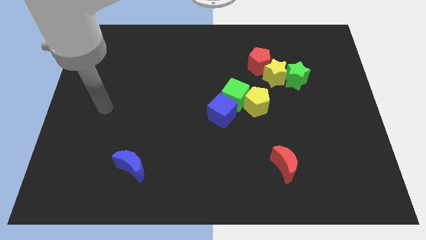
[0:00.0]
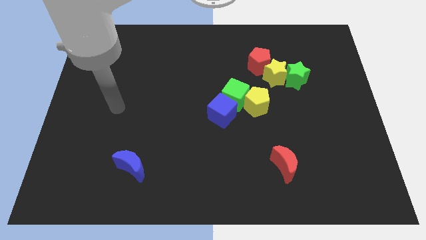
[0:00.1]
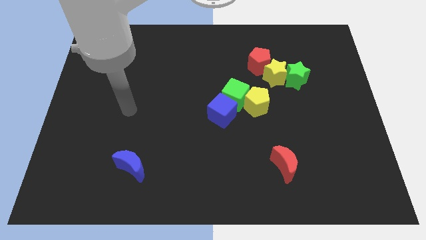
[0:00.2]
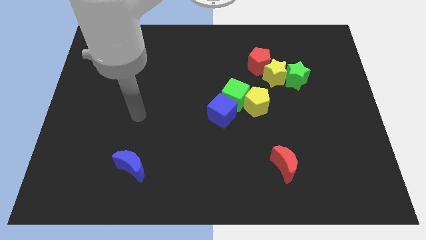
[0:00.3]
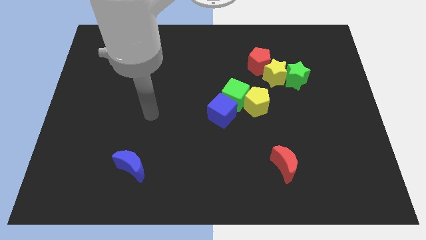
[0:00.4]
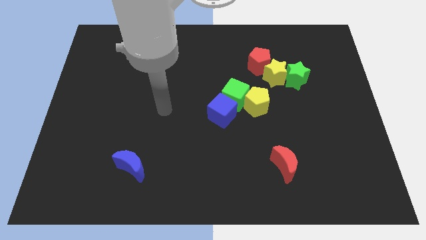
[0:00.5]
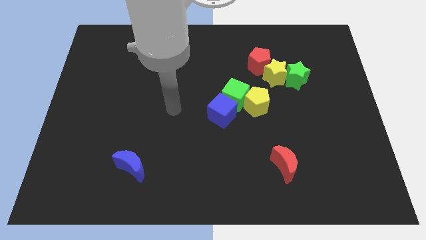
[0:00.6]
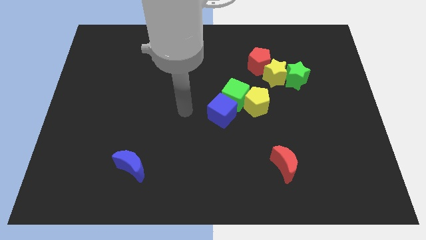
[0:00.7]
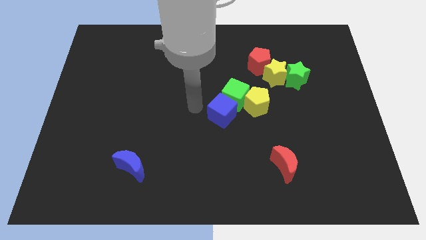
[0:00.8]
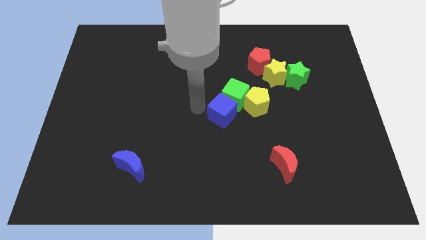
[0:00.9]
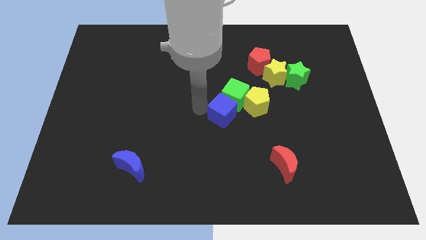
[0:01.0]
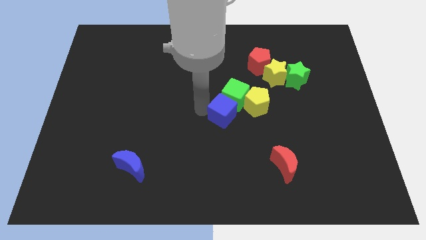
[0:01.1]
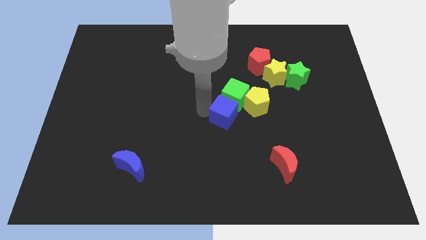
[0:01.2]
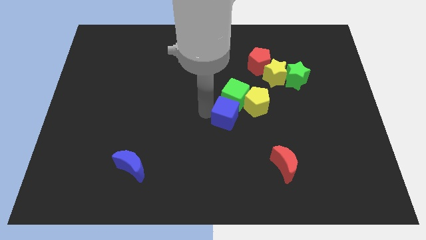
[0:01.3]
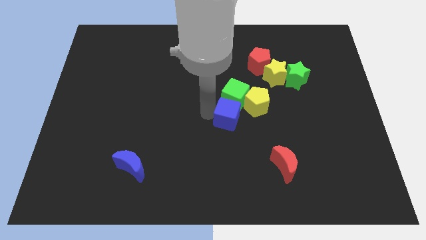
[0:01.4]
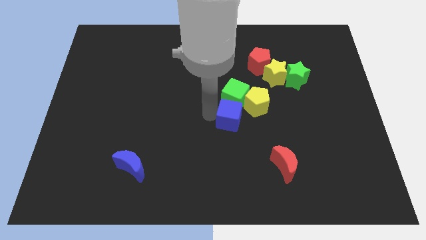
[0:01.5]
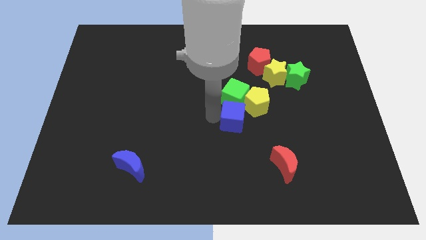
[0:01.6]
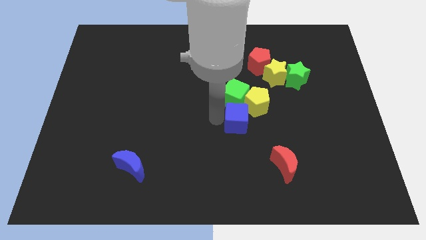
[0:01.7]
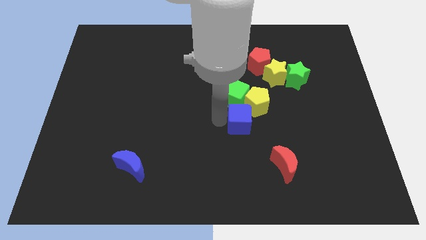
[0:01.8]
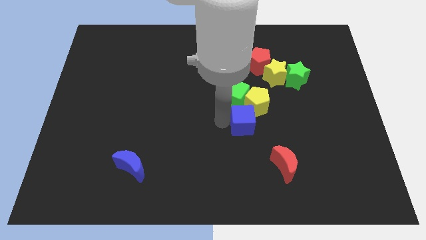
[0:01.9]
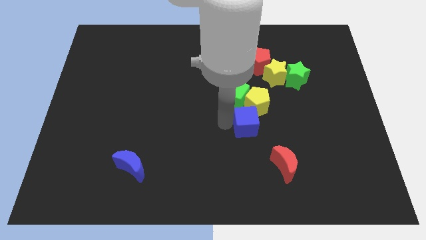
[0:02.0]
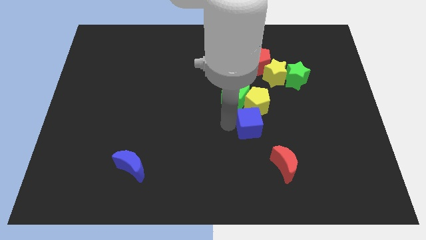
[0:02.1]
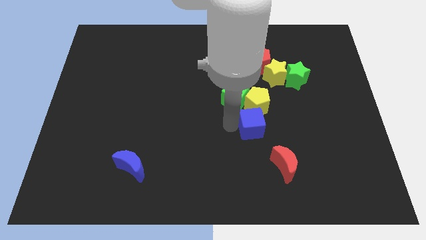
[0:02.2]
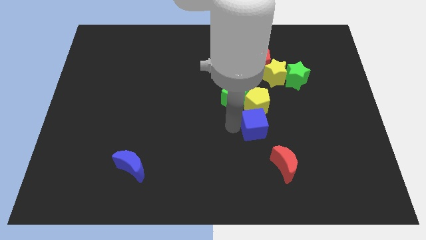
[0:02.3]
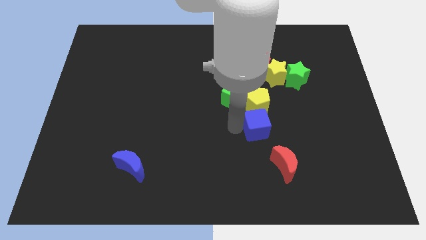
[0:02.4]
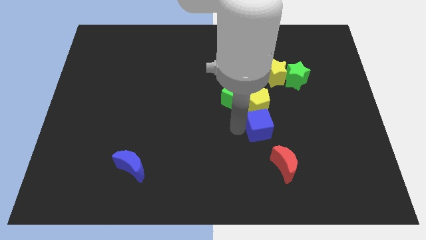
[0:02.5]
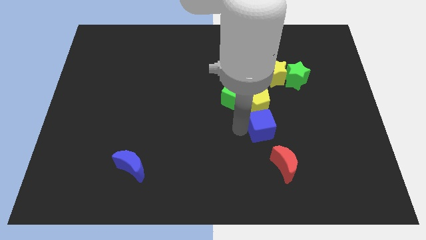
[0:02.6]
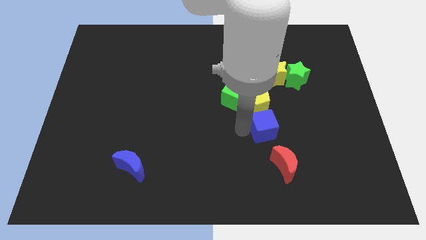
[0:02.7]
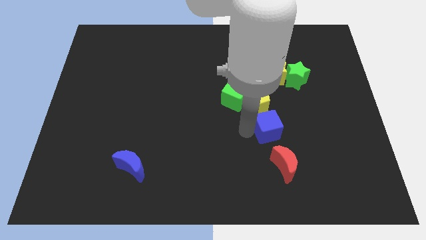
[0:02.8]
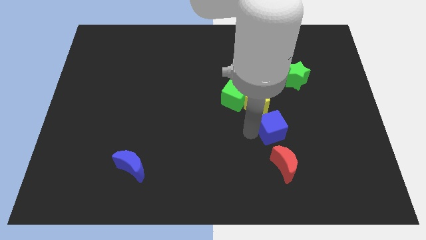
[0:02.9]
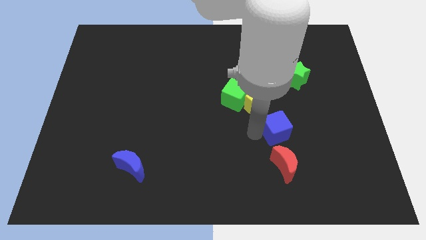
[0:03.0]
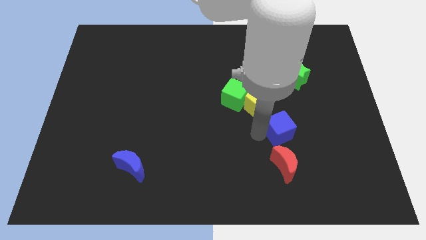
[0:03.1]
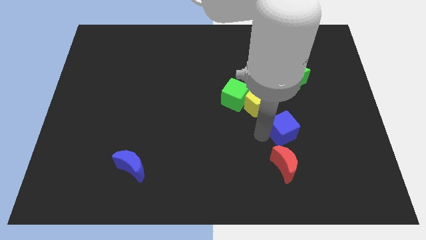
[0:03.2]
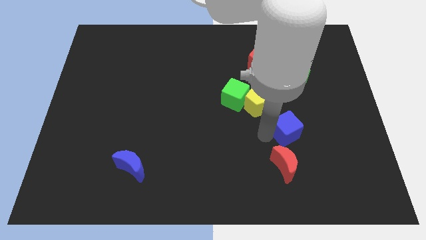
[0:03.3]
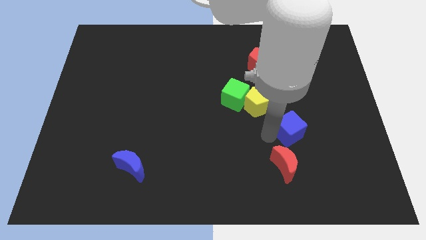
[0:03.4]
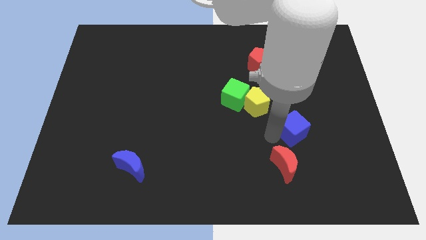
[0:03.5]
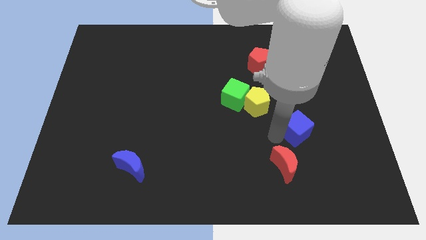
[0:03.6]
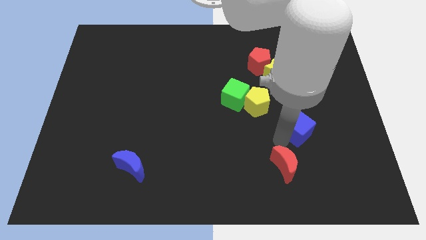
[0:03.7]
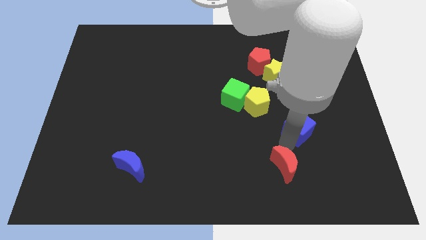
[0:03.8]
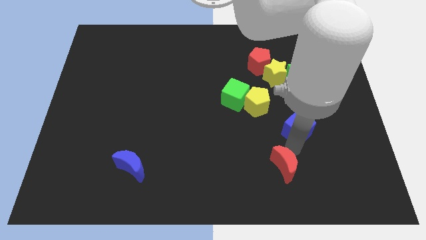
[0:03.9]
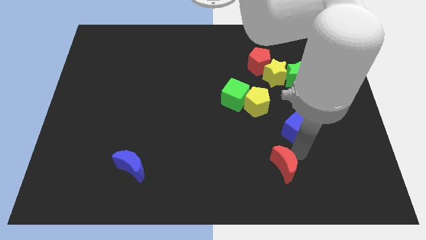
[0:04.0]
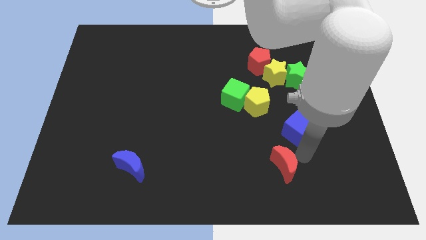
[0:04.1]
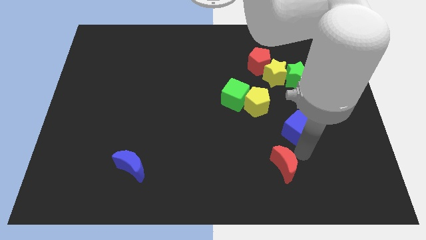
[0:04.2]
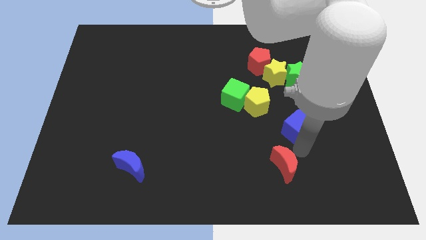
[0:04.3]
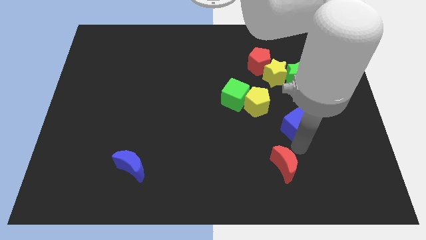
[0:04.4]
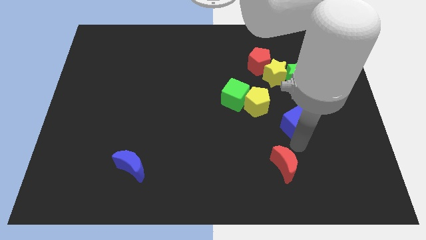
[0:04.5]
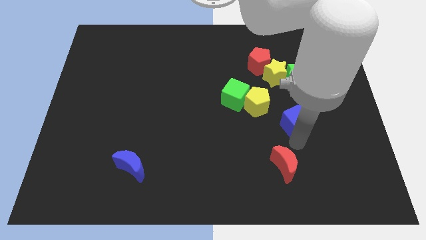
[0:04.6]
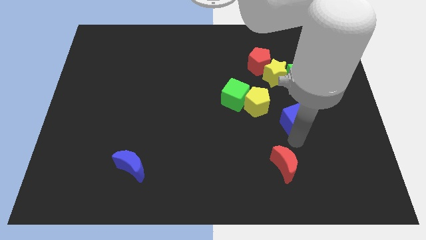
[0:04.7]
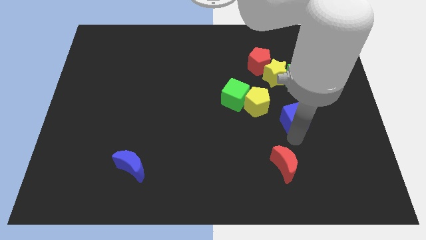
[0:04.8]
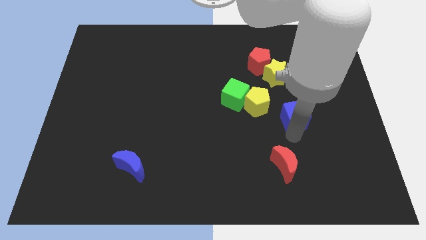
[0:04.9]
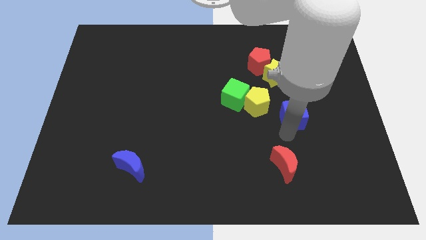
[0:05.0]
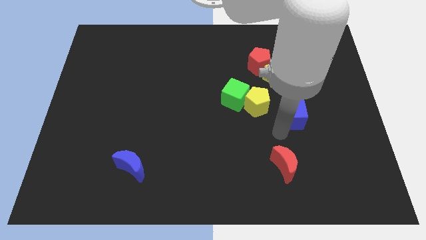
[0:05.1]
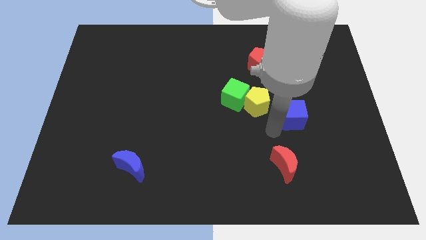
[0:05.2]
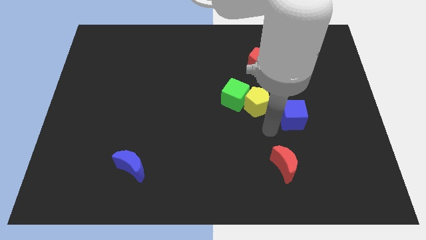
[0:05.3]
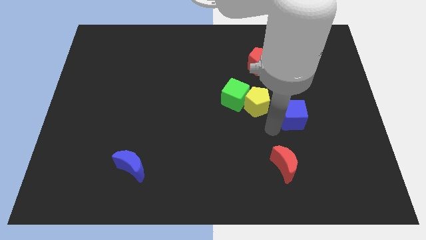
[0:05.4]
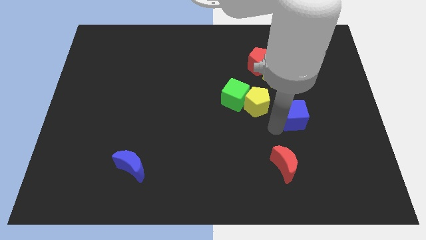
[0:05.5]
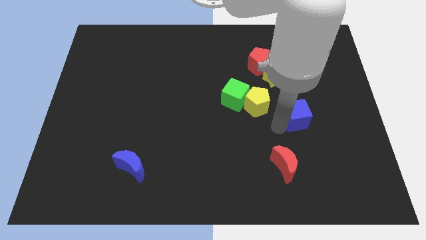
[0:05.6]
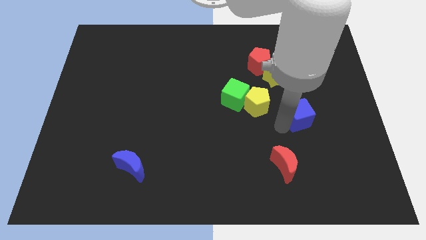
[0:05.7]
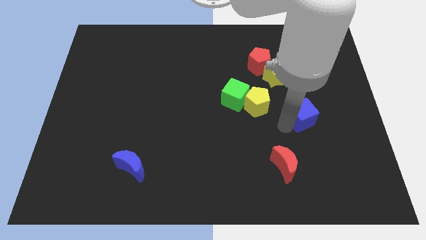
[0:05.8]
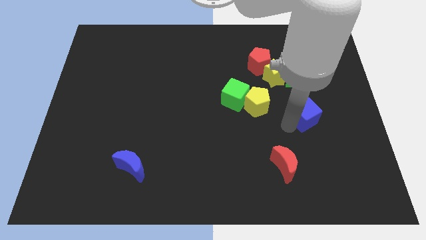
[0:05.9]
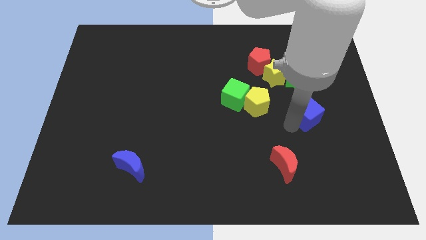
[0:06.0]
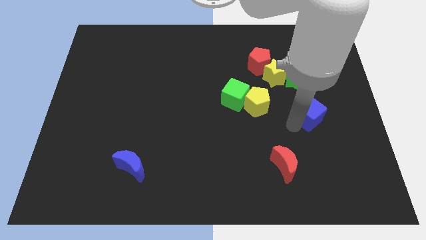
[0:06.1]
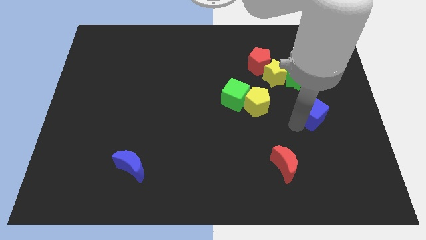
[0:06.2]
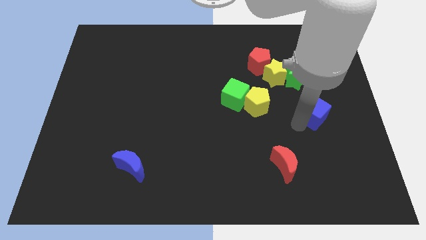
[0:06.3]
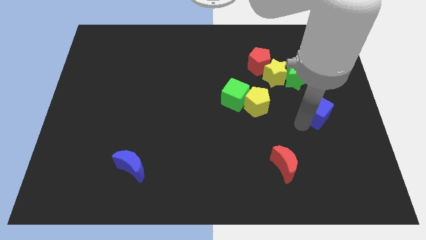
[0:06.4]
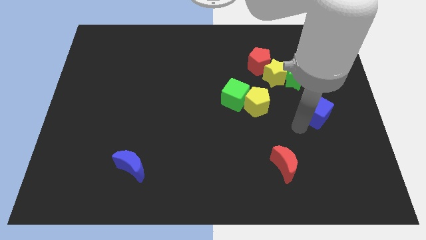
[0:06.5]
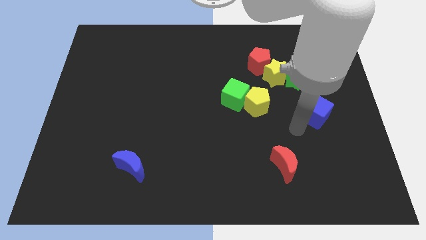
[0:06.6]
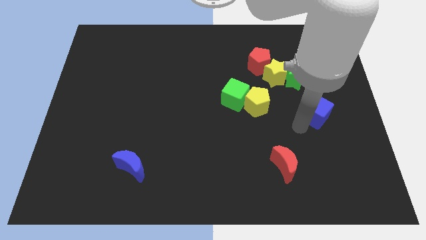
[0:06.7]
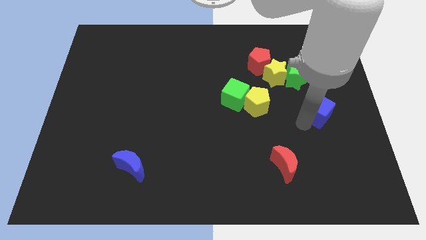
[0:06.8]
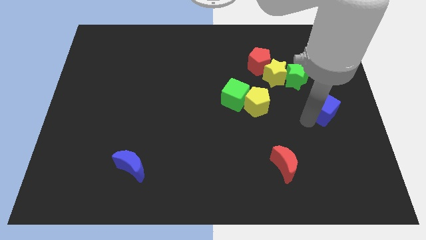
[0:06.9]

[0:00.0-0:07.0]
move the blue cube to the center right
